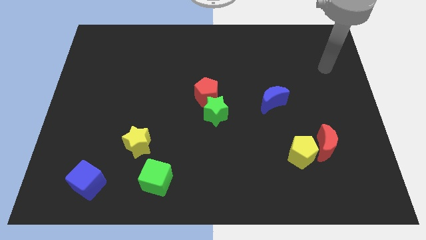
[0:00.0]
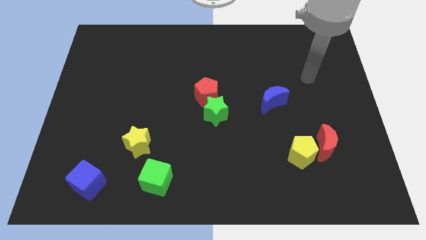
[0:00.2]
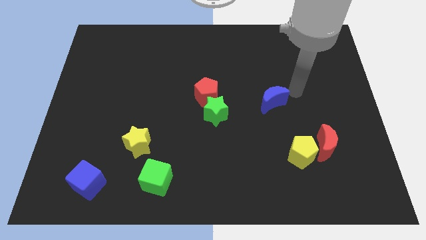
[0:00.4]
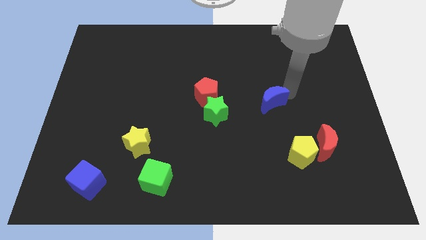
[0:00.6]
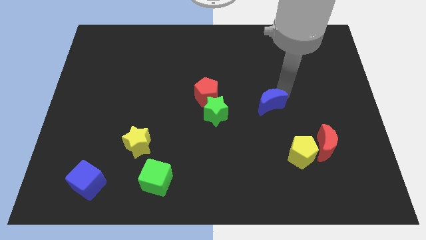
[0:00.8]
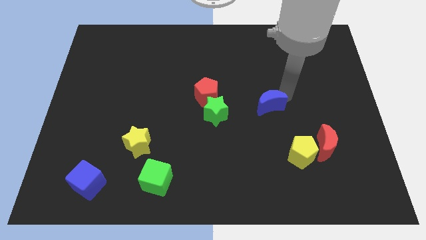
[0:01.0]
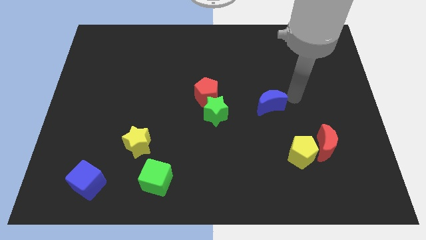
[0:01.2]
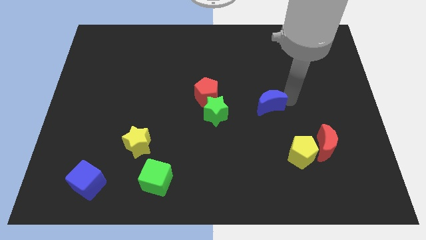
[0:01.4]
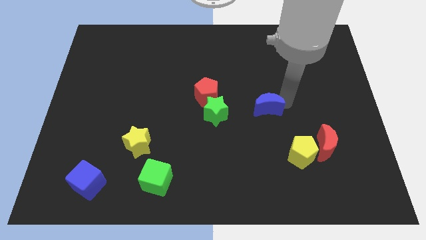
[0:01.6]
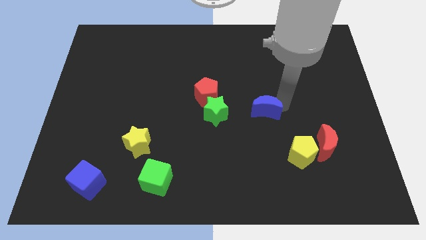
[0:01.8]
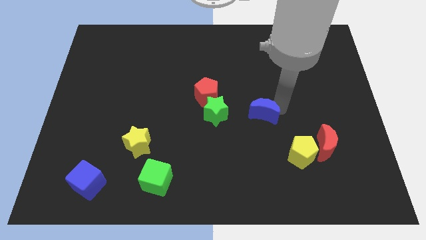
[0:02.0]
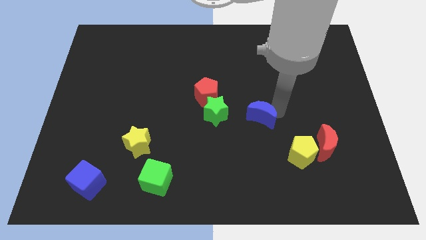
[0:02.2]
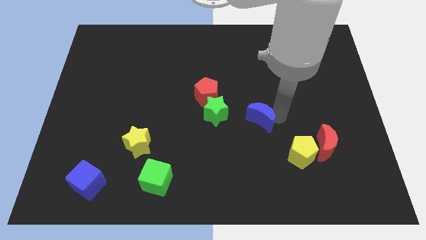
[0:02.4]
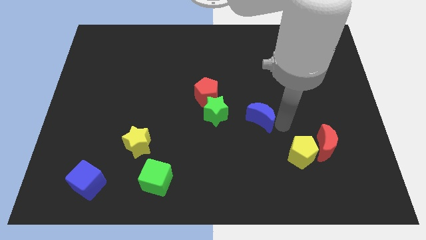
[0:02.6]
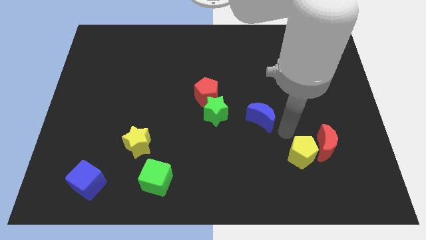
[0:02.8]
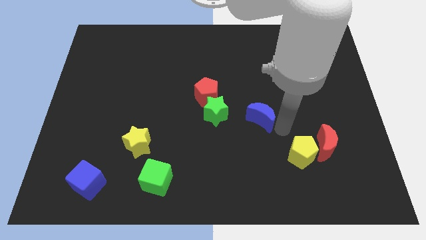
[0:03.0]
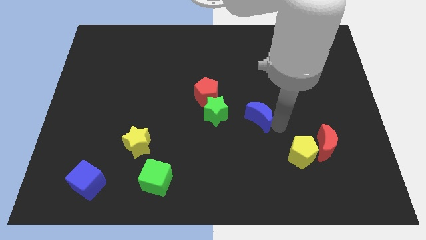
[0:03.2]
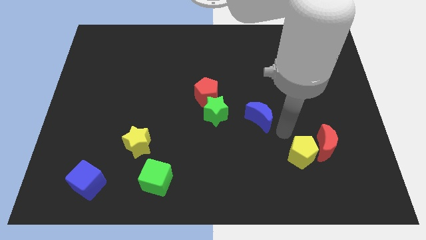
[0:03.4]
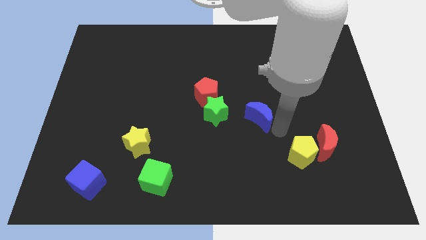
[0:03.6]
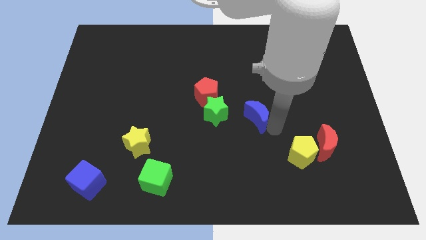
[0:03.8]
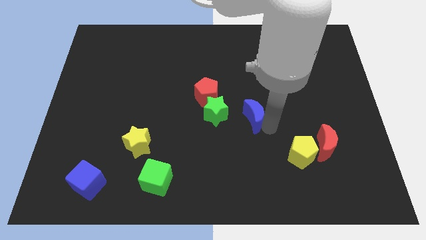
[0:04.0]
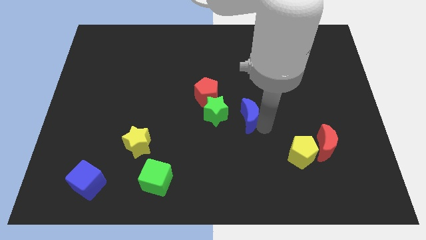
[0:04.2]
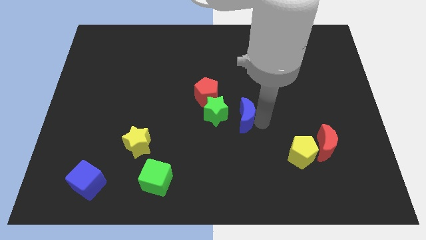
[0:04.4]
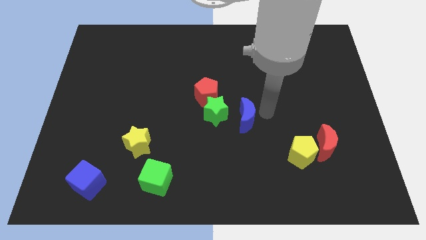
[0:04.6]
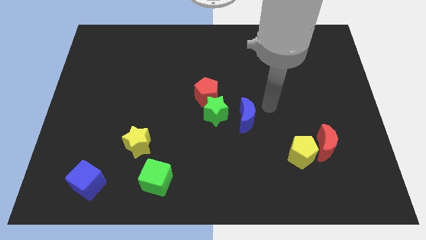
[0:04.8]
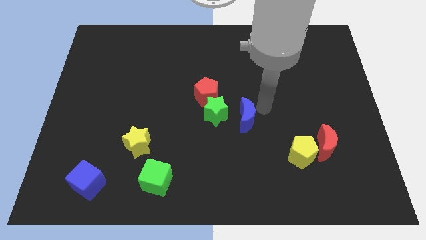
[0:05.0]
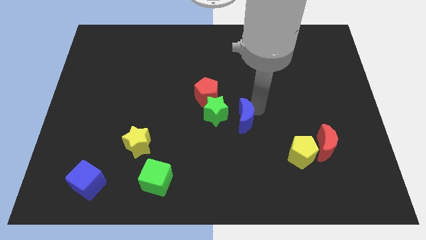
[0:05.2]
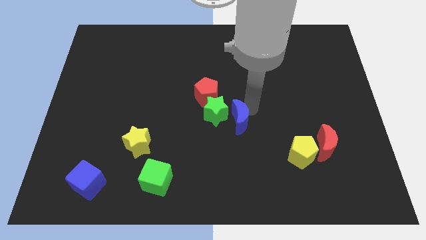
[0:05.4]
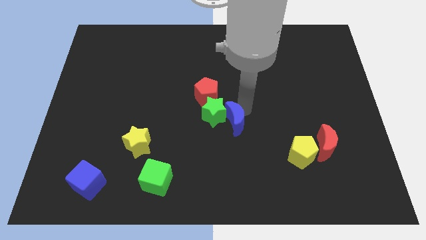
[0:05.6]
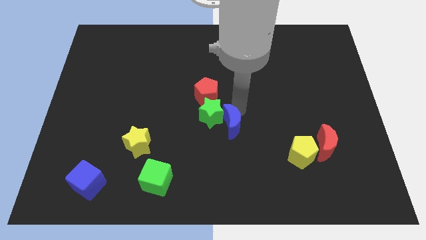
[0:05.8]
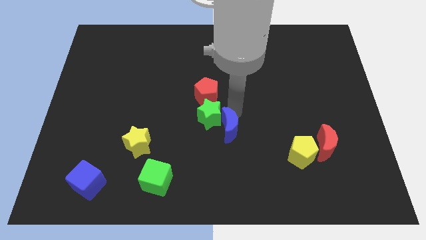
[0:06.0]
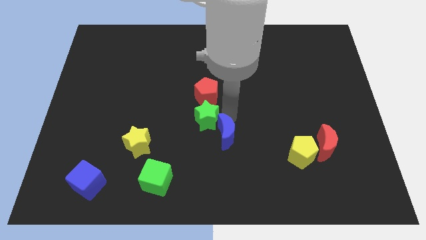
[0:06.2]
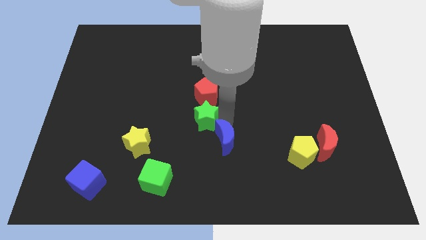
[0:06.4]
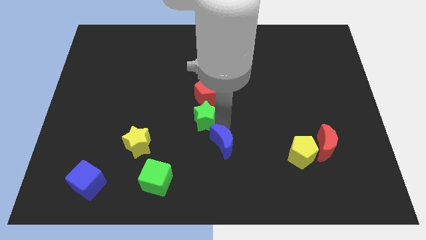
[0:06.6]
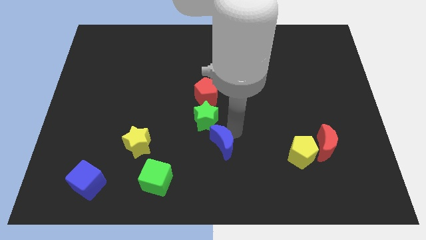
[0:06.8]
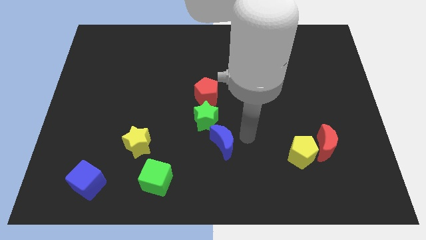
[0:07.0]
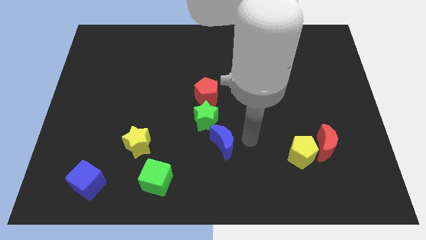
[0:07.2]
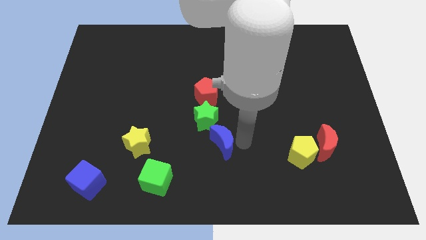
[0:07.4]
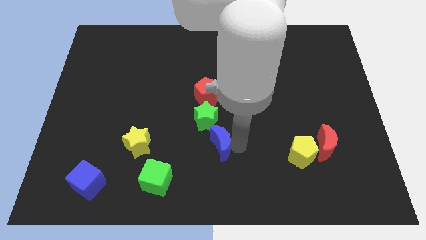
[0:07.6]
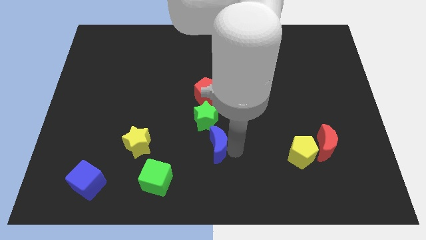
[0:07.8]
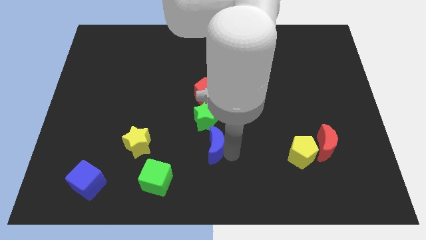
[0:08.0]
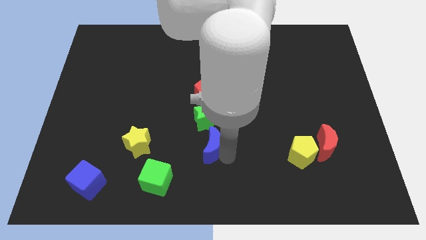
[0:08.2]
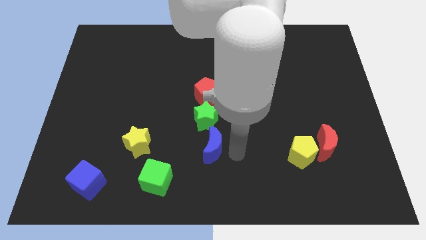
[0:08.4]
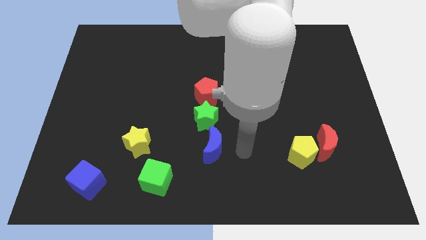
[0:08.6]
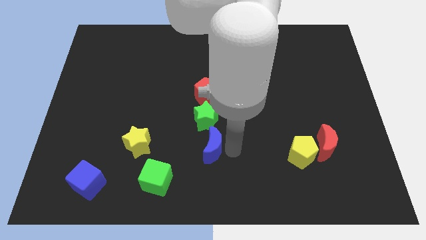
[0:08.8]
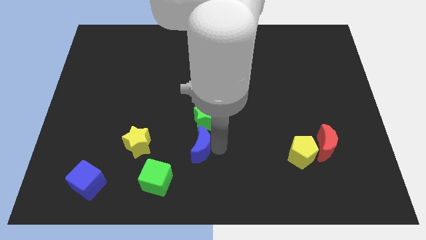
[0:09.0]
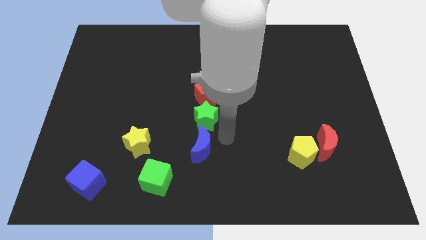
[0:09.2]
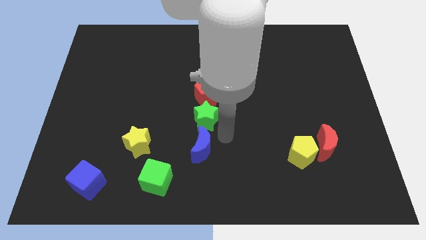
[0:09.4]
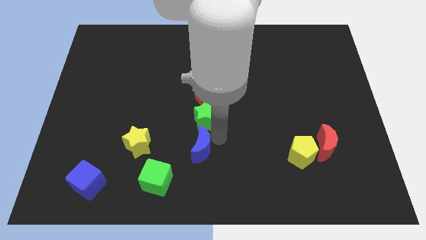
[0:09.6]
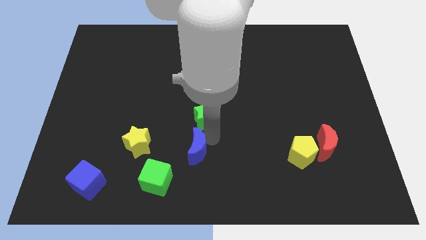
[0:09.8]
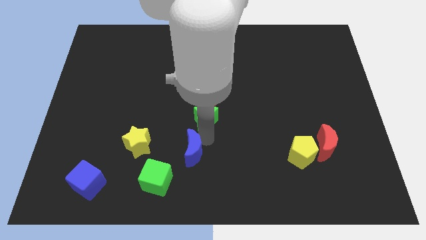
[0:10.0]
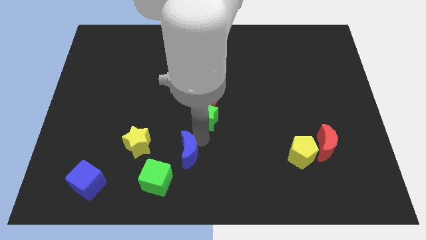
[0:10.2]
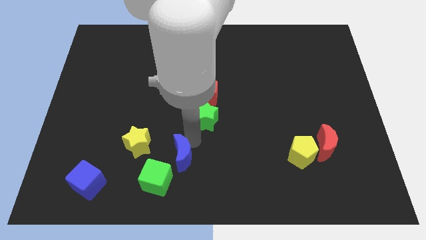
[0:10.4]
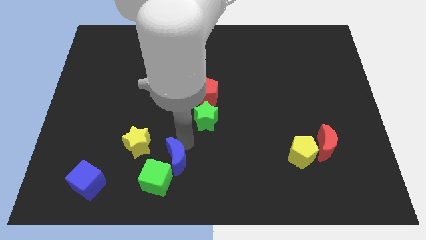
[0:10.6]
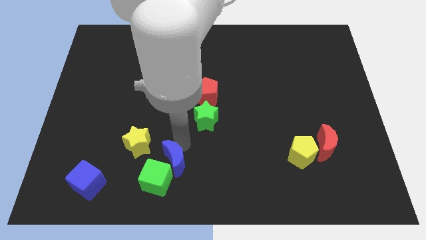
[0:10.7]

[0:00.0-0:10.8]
move the blue moon close to the green cube

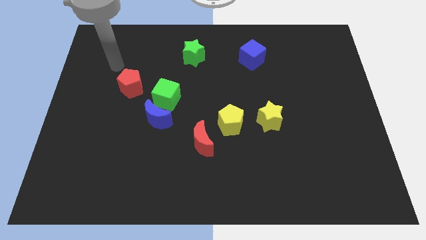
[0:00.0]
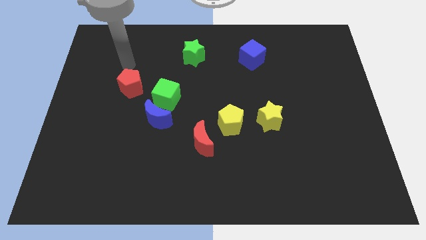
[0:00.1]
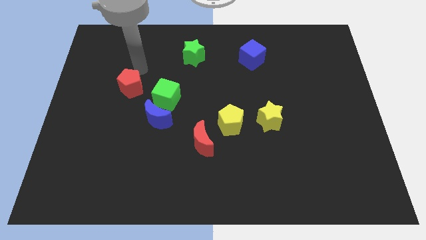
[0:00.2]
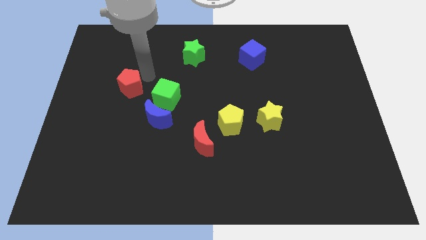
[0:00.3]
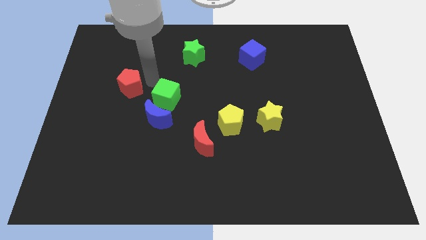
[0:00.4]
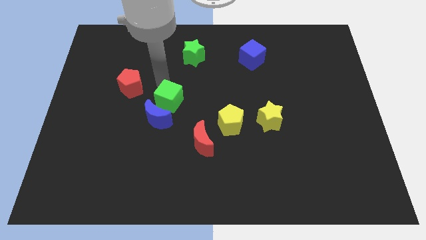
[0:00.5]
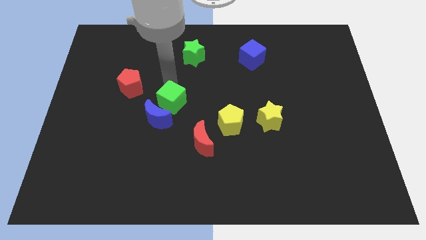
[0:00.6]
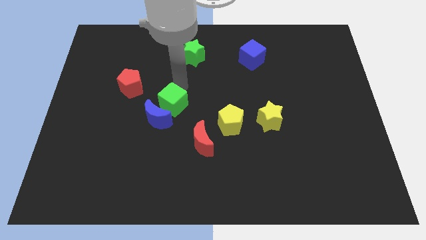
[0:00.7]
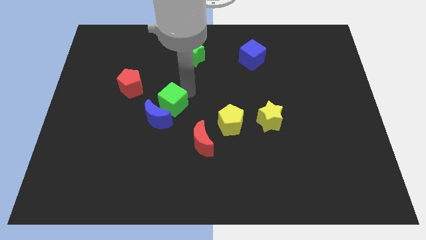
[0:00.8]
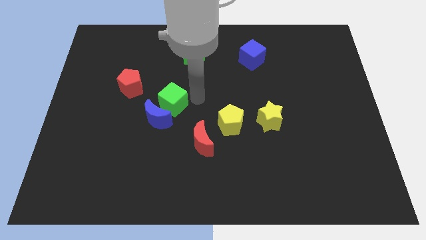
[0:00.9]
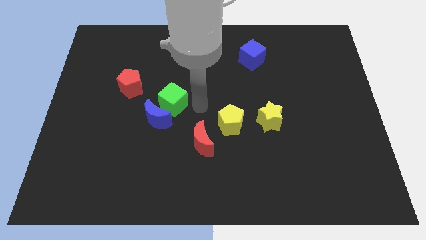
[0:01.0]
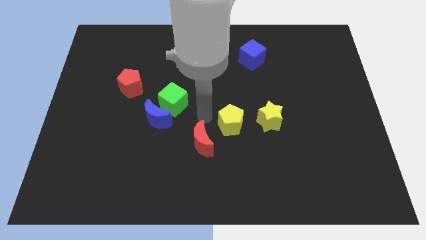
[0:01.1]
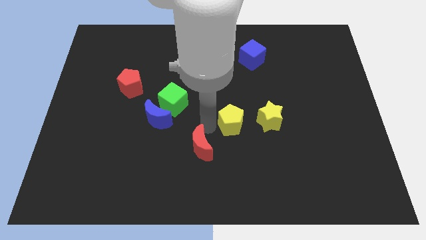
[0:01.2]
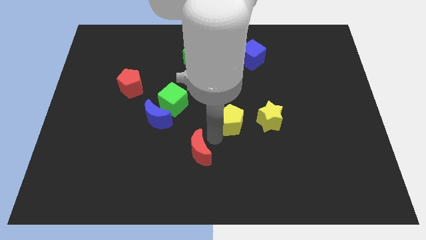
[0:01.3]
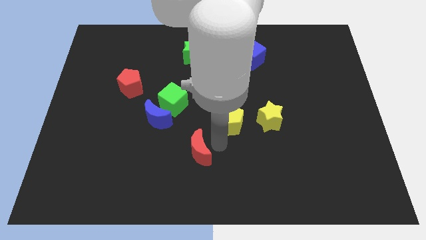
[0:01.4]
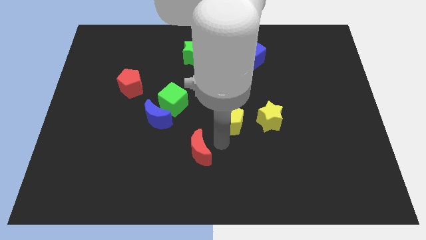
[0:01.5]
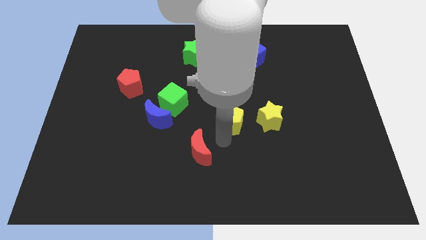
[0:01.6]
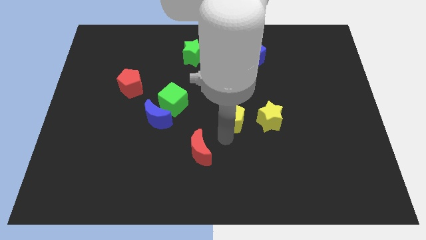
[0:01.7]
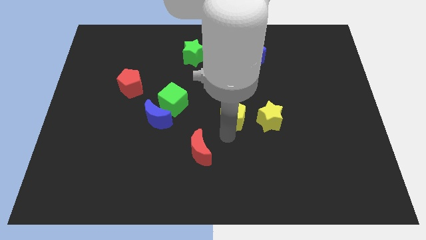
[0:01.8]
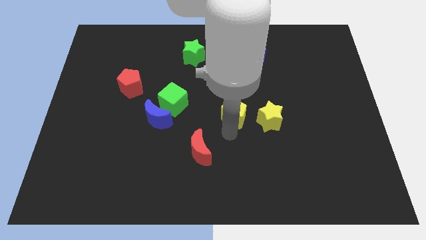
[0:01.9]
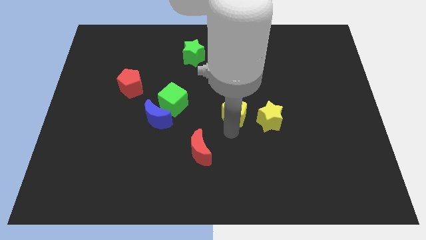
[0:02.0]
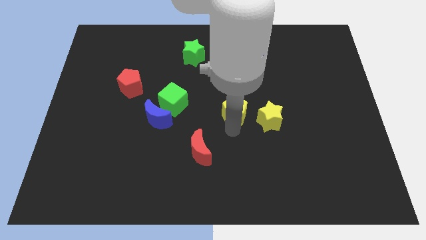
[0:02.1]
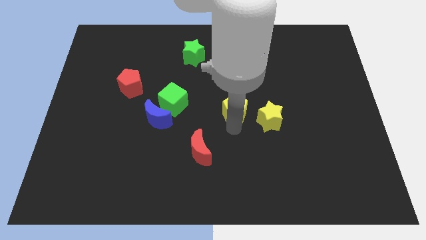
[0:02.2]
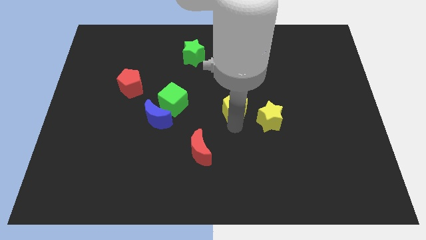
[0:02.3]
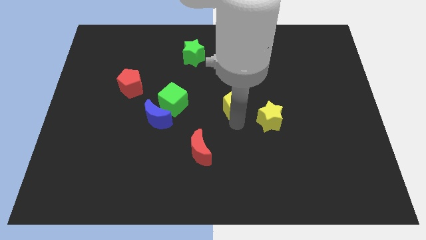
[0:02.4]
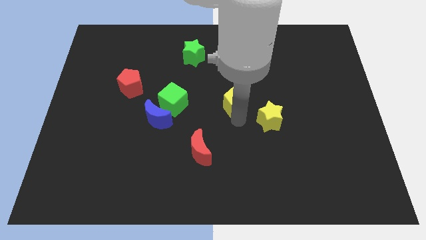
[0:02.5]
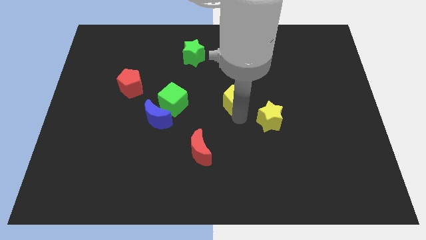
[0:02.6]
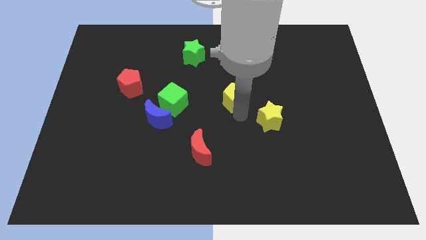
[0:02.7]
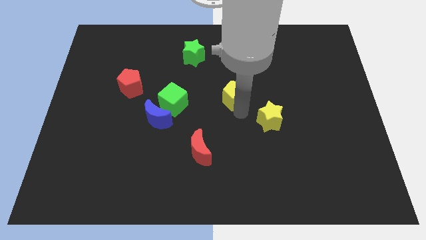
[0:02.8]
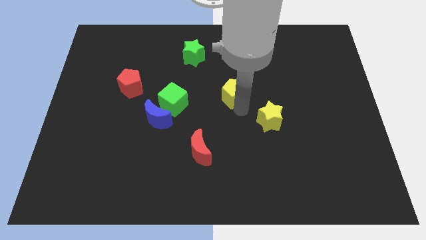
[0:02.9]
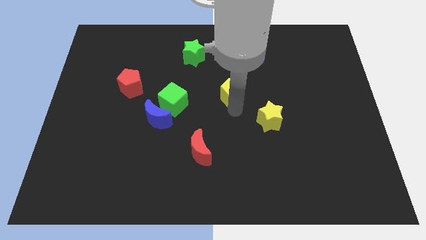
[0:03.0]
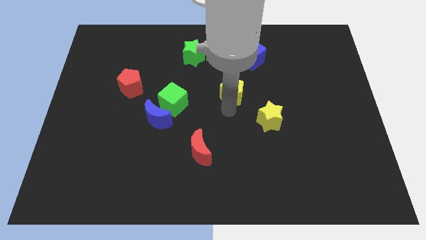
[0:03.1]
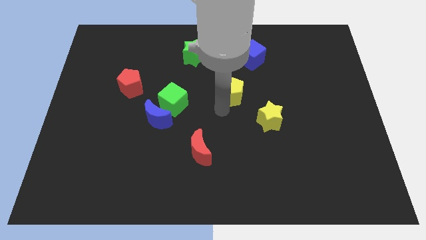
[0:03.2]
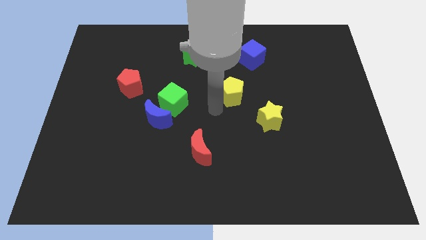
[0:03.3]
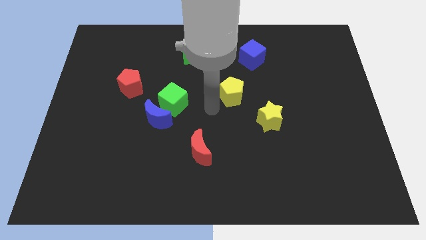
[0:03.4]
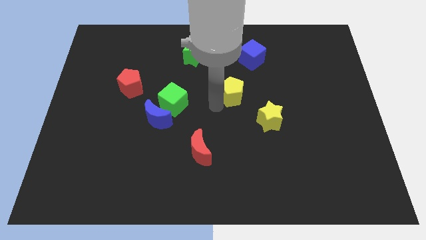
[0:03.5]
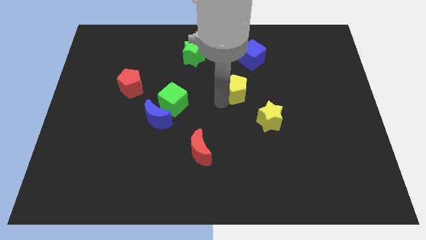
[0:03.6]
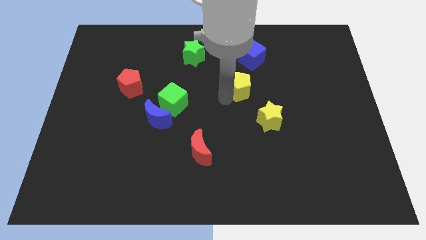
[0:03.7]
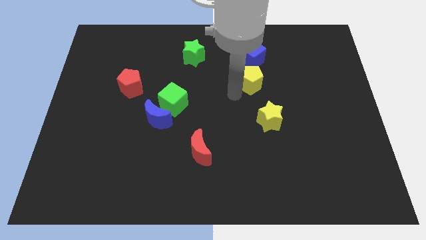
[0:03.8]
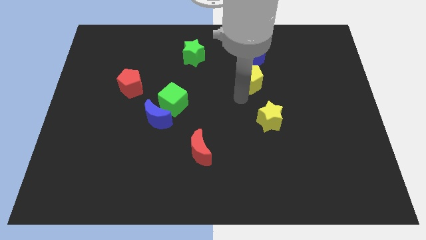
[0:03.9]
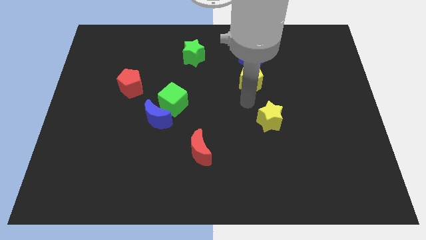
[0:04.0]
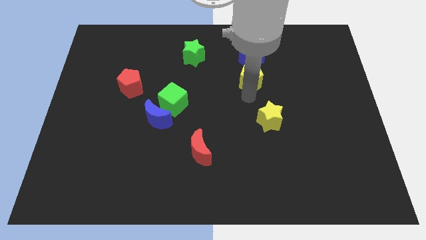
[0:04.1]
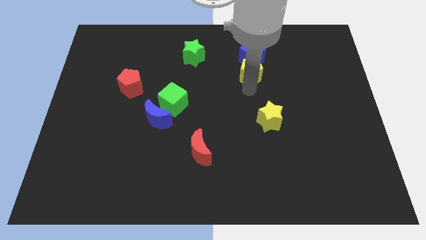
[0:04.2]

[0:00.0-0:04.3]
push the yellow pentagon close to the blue cube
